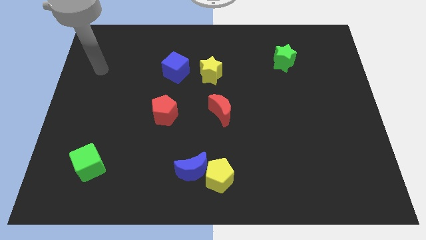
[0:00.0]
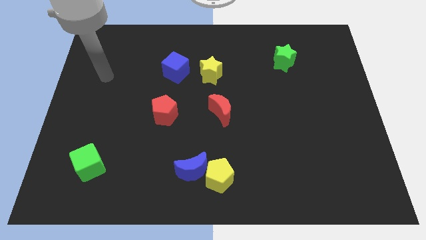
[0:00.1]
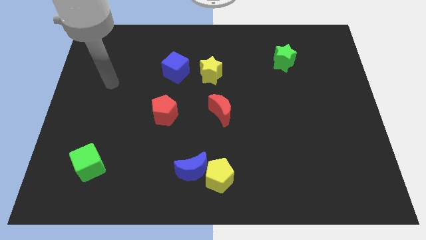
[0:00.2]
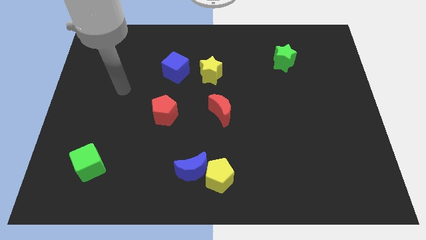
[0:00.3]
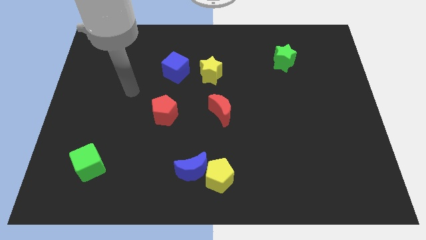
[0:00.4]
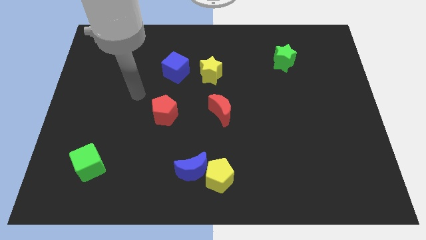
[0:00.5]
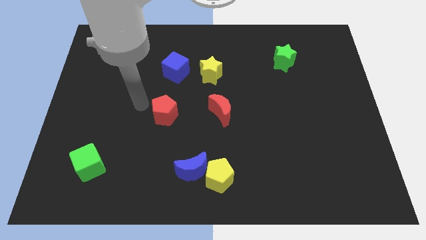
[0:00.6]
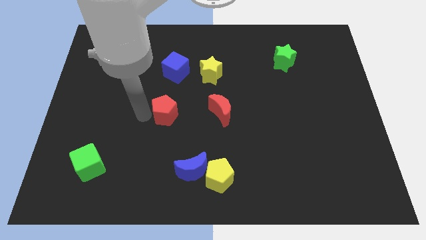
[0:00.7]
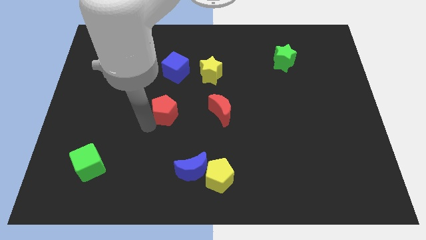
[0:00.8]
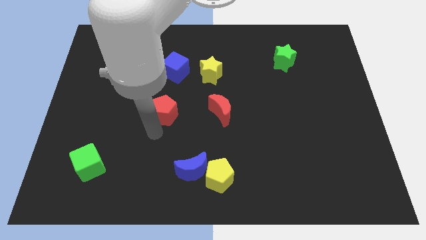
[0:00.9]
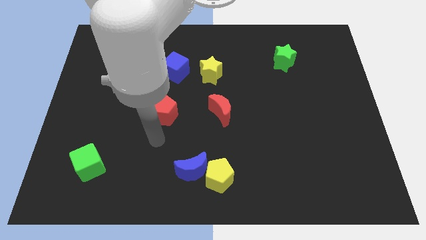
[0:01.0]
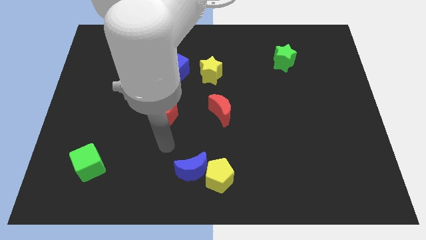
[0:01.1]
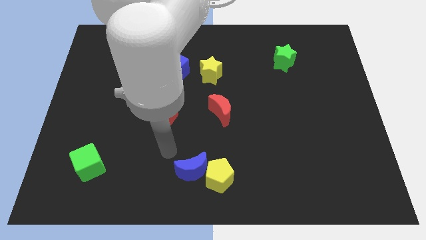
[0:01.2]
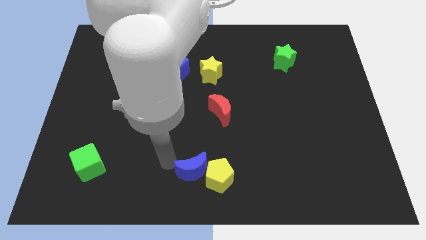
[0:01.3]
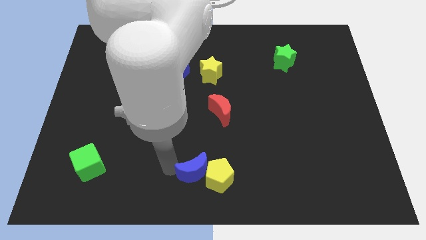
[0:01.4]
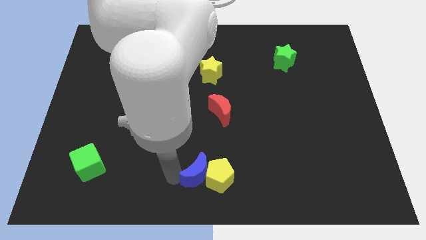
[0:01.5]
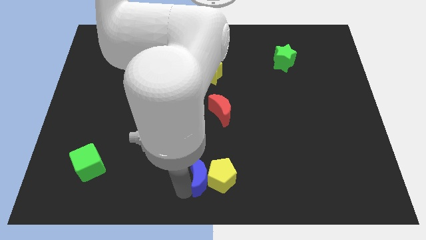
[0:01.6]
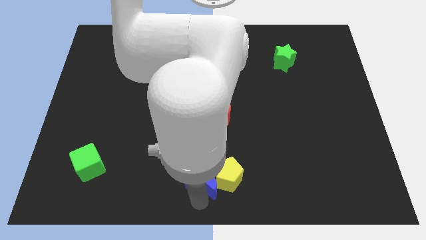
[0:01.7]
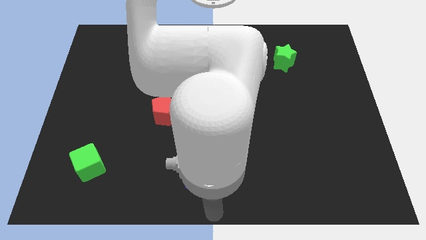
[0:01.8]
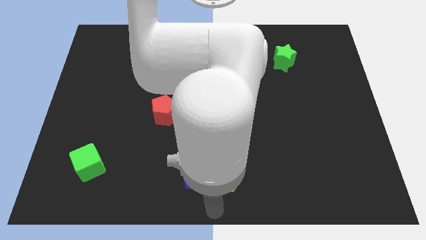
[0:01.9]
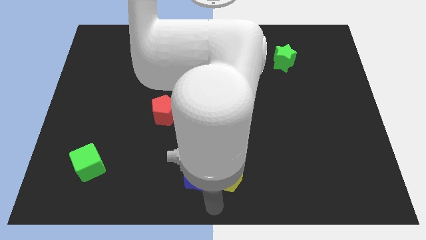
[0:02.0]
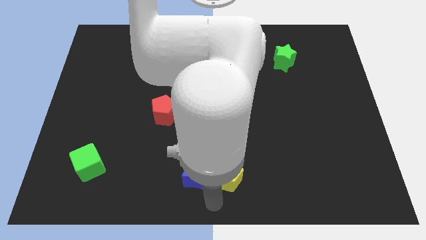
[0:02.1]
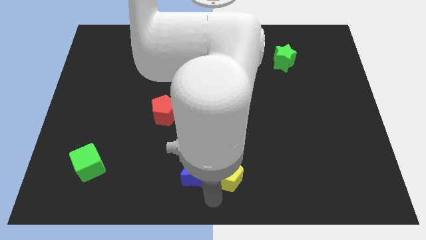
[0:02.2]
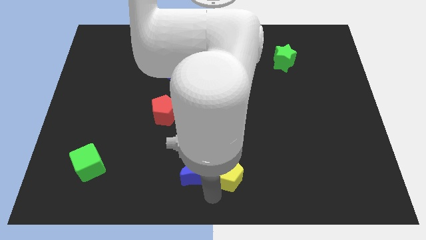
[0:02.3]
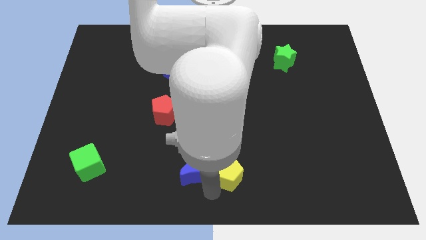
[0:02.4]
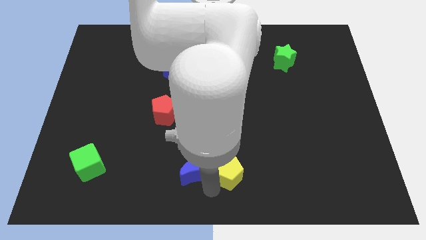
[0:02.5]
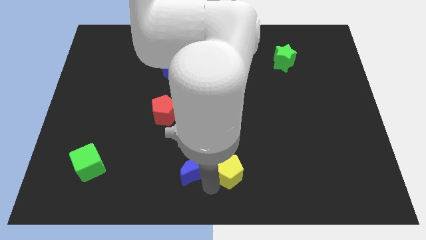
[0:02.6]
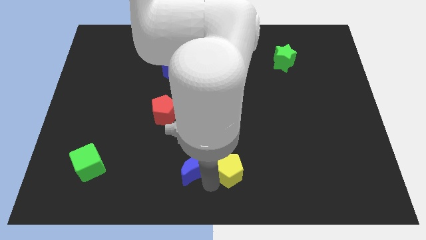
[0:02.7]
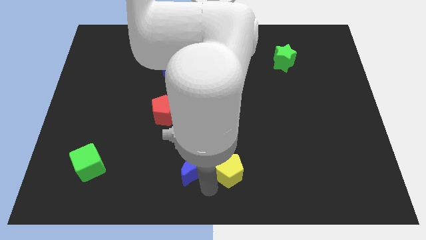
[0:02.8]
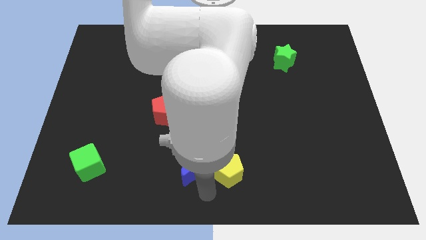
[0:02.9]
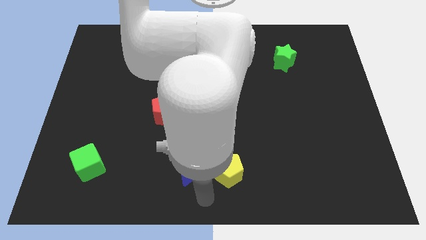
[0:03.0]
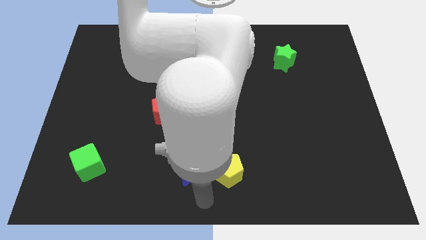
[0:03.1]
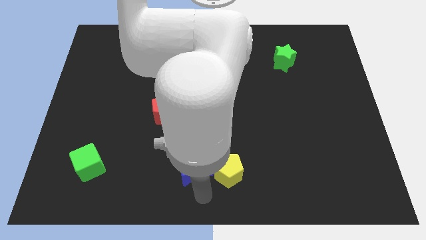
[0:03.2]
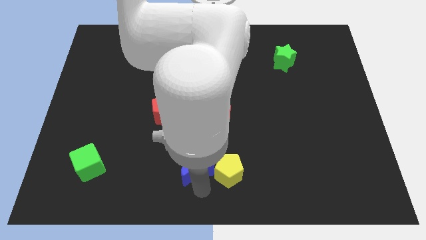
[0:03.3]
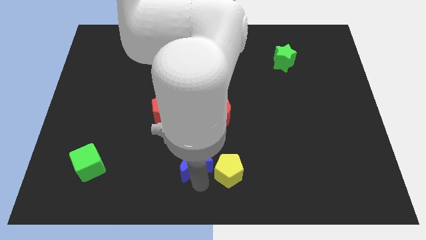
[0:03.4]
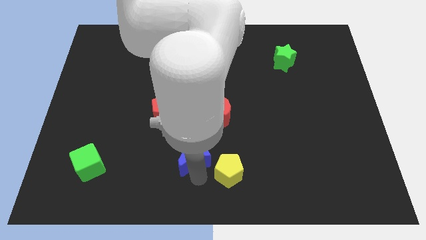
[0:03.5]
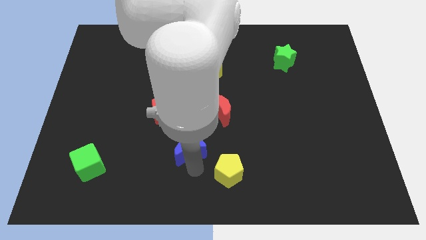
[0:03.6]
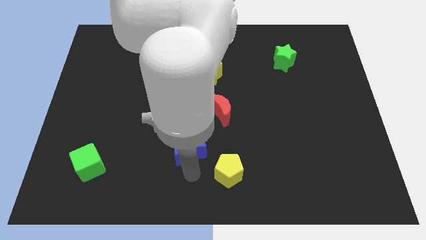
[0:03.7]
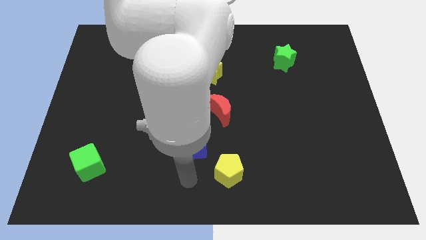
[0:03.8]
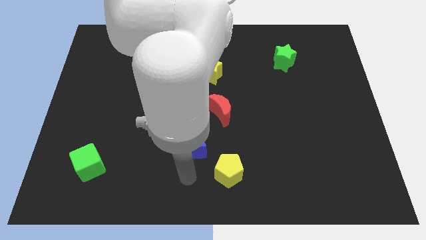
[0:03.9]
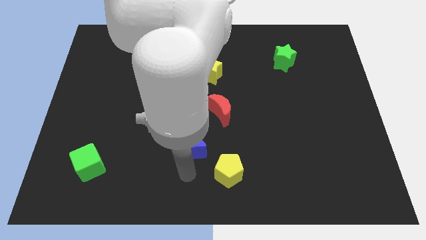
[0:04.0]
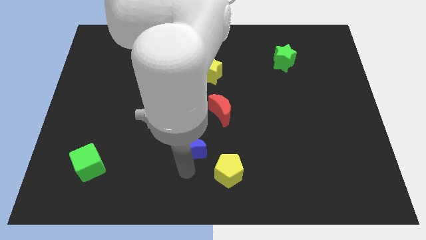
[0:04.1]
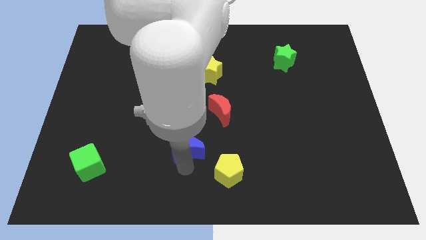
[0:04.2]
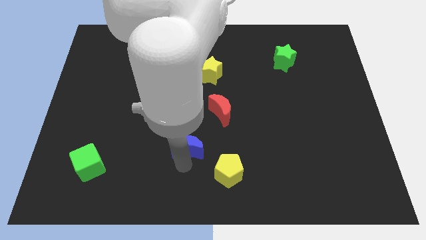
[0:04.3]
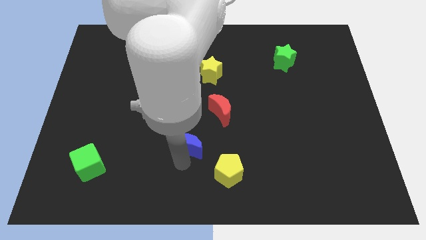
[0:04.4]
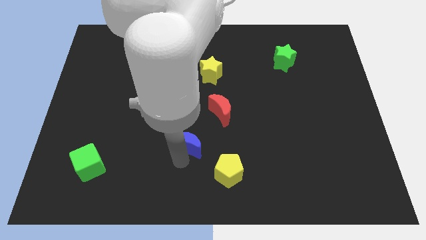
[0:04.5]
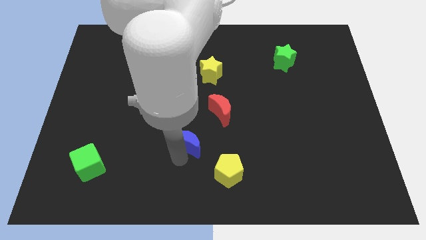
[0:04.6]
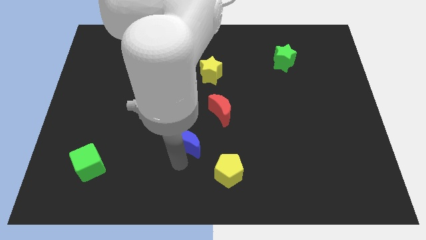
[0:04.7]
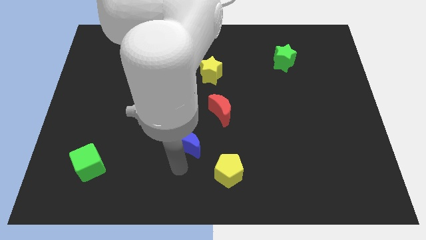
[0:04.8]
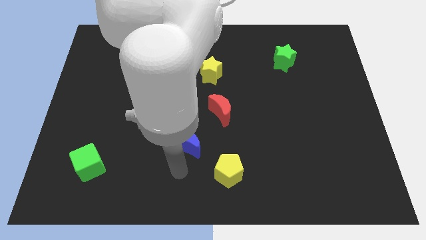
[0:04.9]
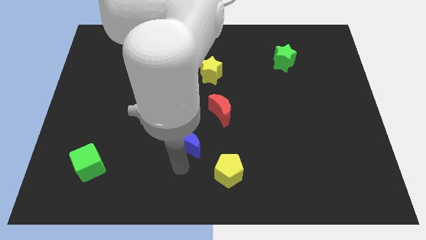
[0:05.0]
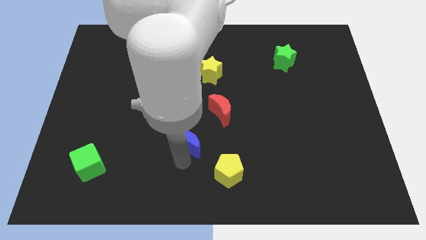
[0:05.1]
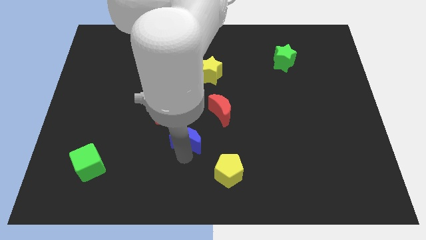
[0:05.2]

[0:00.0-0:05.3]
slide the blue moon a bit upwards

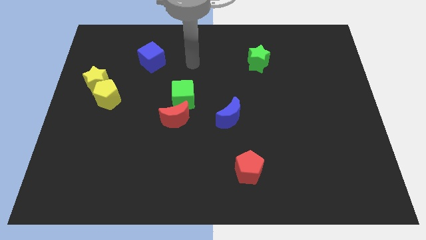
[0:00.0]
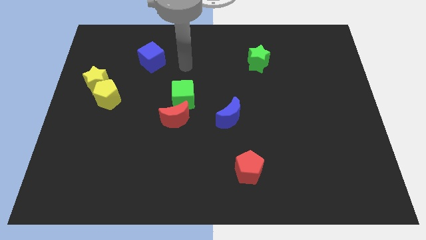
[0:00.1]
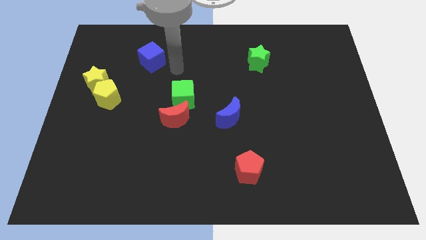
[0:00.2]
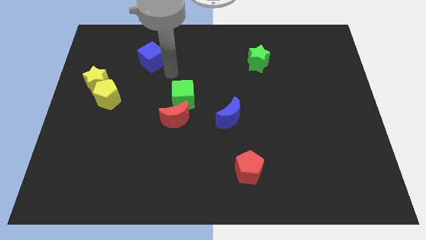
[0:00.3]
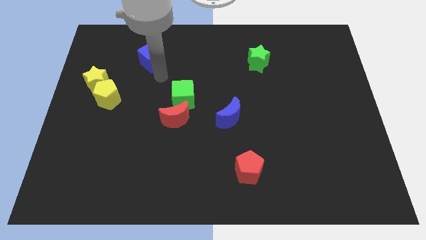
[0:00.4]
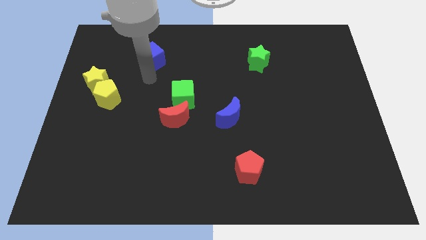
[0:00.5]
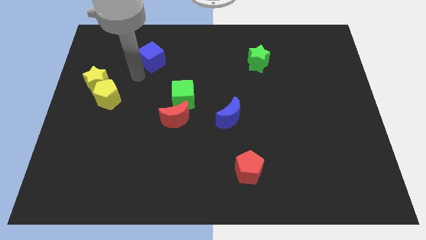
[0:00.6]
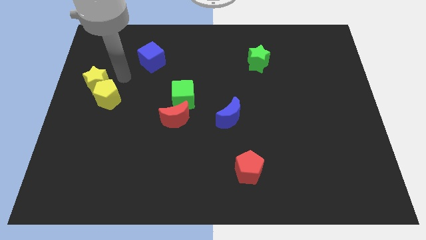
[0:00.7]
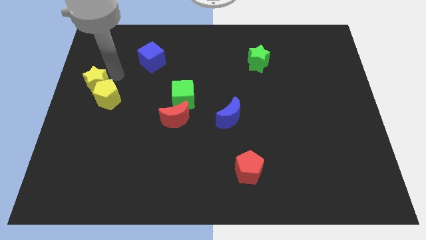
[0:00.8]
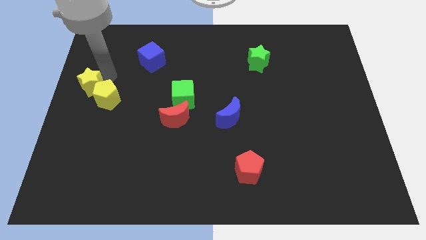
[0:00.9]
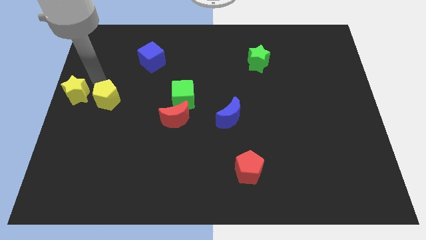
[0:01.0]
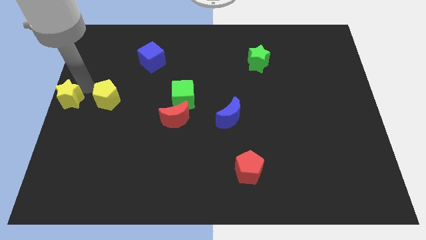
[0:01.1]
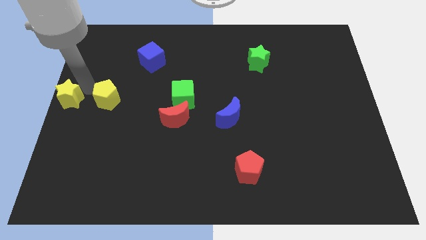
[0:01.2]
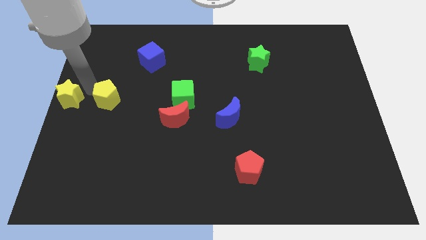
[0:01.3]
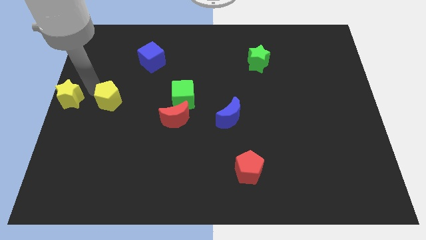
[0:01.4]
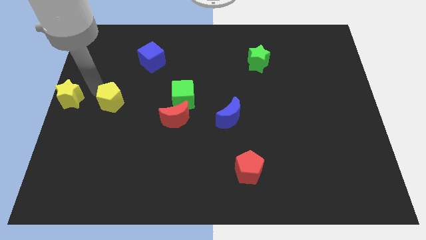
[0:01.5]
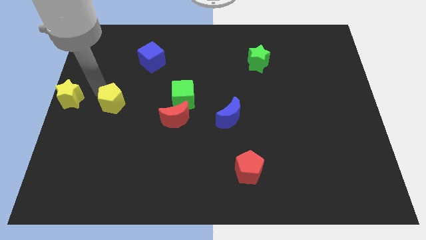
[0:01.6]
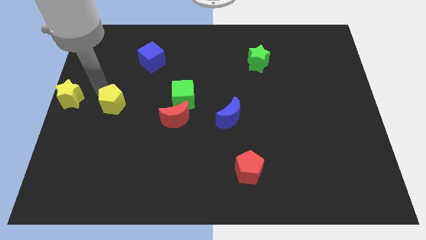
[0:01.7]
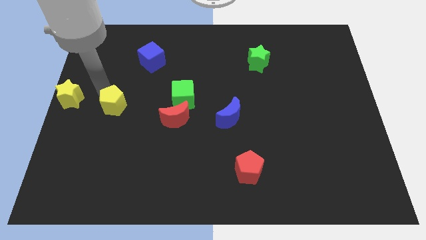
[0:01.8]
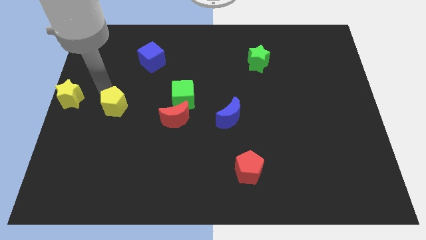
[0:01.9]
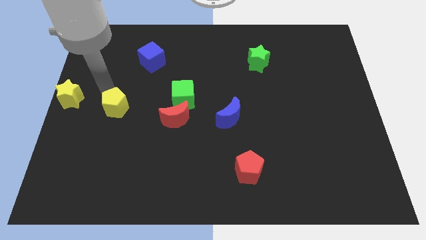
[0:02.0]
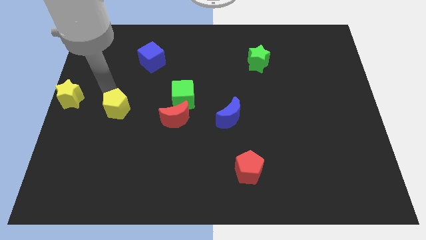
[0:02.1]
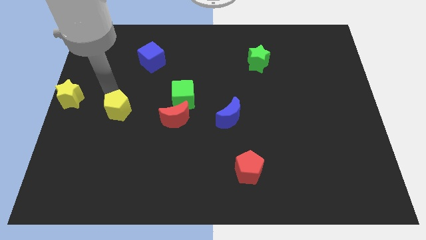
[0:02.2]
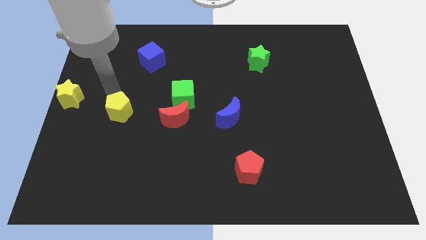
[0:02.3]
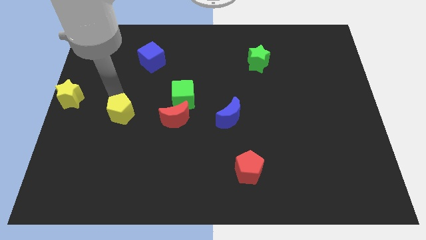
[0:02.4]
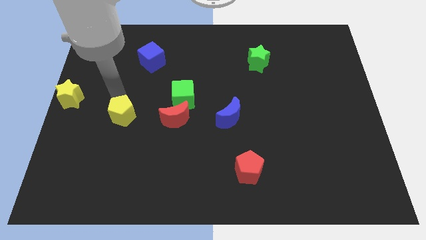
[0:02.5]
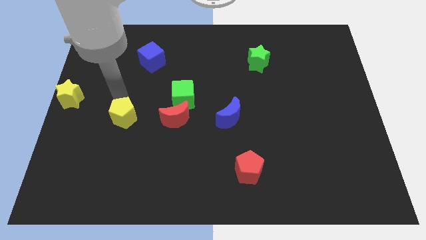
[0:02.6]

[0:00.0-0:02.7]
push the yellow pentagon downwards and right diagonally somewhat
